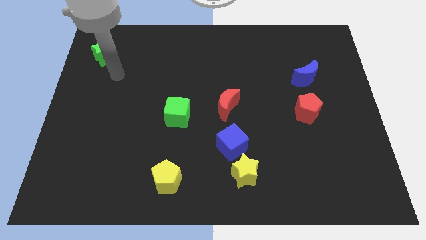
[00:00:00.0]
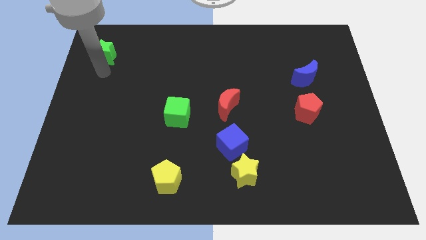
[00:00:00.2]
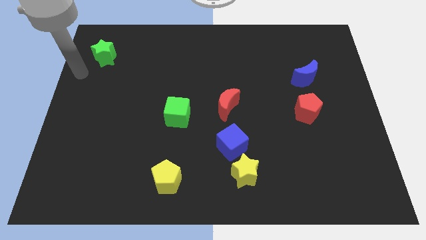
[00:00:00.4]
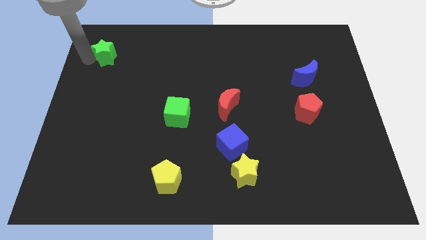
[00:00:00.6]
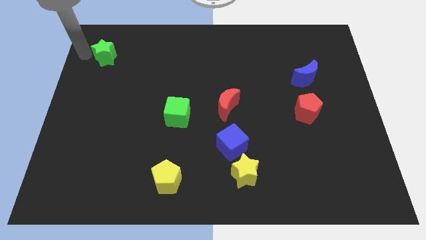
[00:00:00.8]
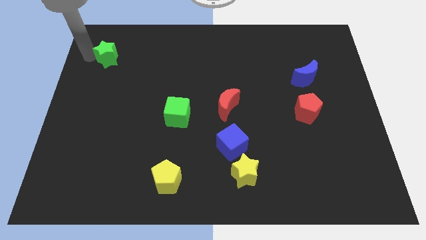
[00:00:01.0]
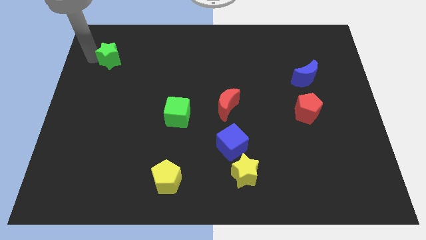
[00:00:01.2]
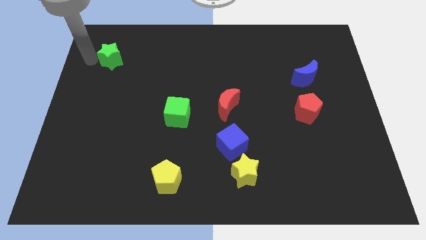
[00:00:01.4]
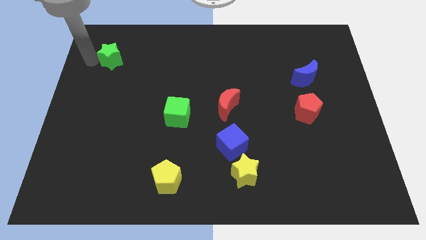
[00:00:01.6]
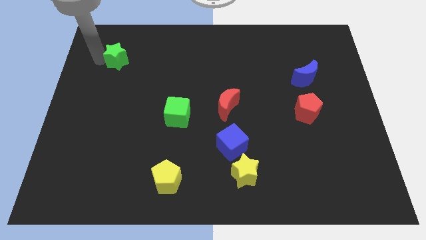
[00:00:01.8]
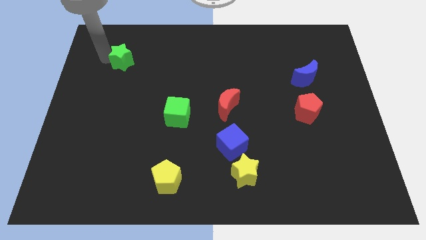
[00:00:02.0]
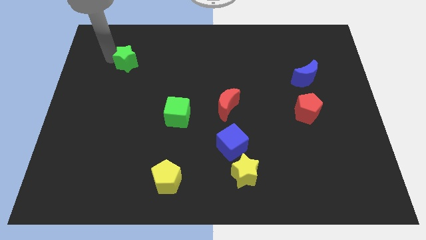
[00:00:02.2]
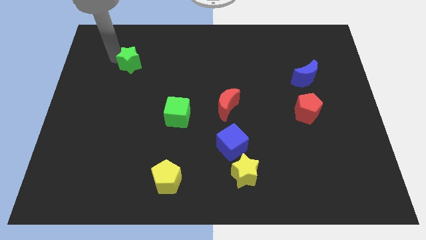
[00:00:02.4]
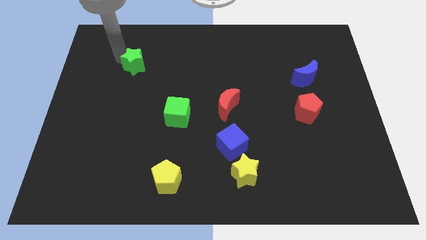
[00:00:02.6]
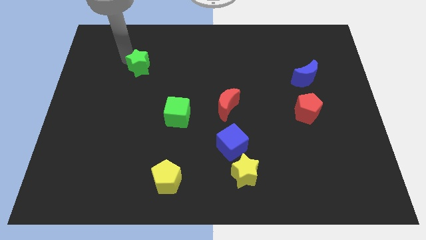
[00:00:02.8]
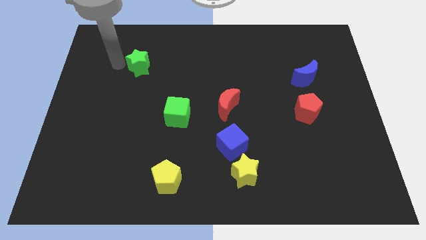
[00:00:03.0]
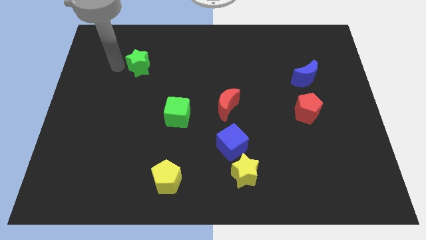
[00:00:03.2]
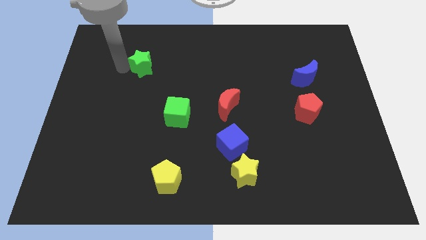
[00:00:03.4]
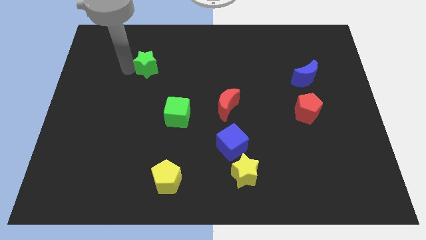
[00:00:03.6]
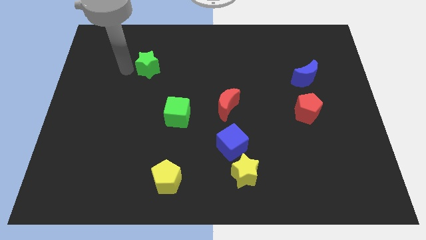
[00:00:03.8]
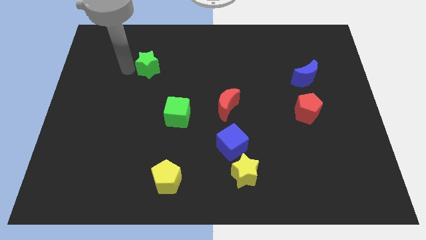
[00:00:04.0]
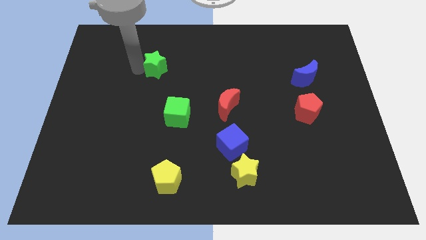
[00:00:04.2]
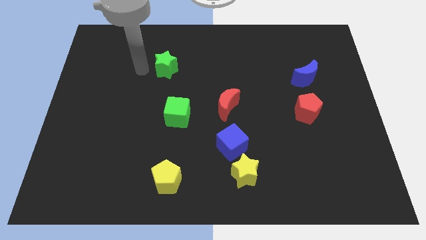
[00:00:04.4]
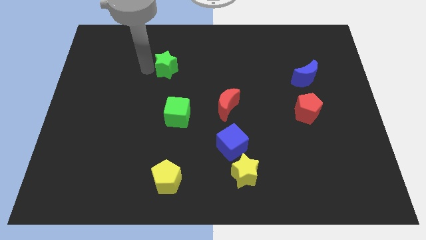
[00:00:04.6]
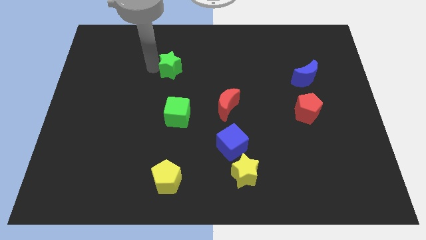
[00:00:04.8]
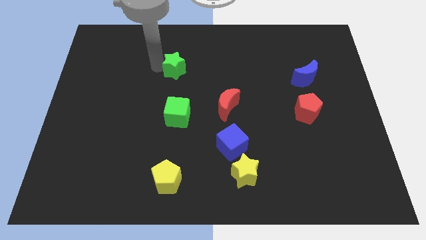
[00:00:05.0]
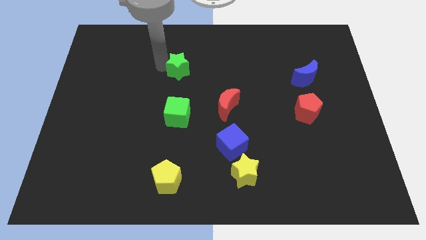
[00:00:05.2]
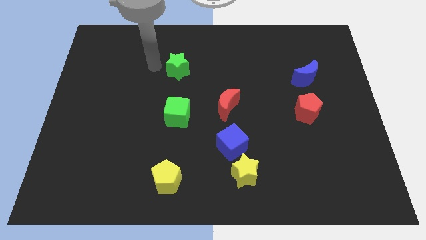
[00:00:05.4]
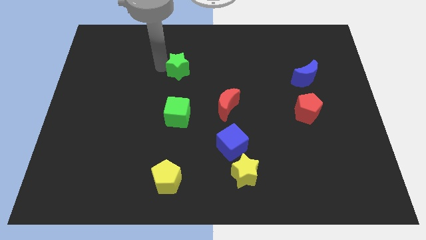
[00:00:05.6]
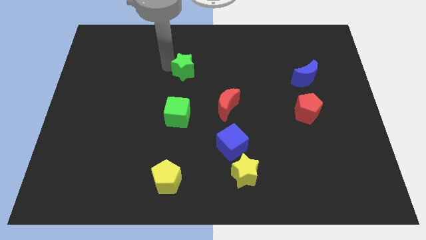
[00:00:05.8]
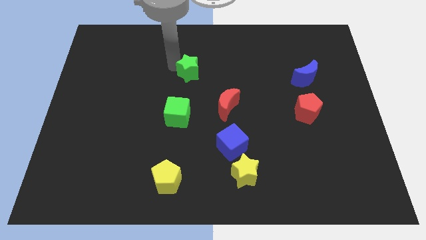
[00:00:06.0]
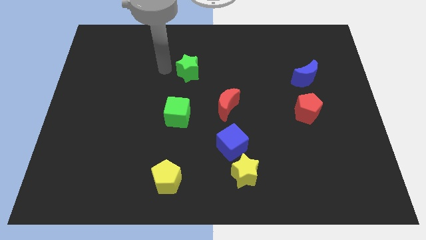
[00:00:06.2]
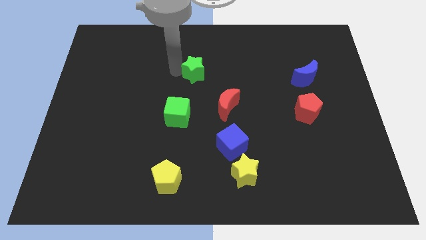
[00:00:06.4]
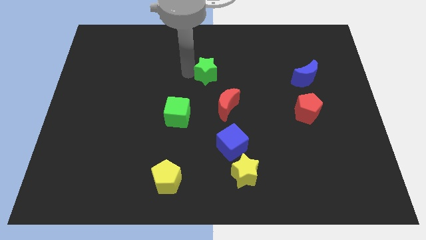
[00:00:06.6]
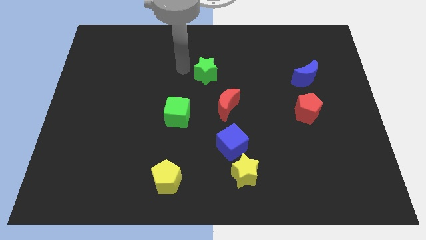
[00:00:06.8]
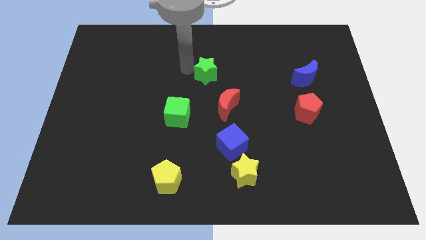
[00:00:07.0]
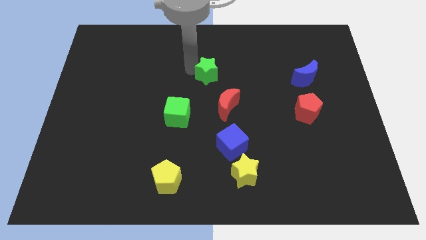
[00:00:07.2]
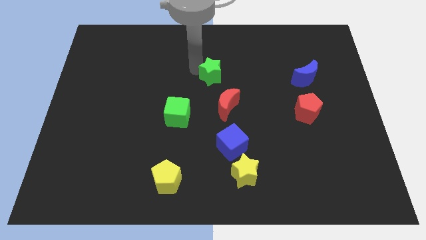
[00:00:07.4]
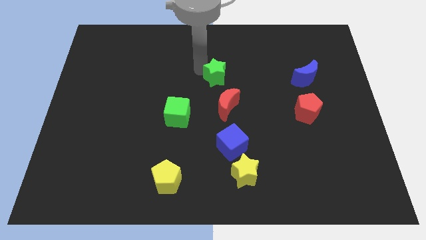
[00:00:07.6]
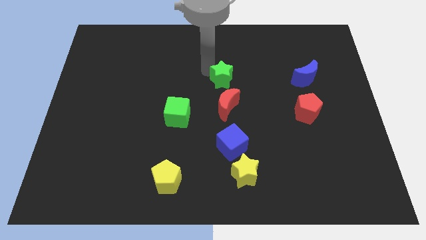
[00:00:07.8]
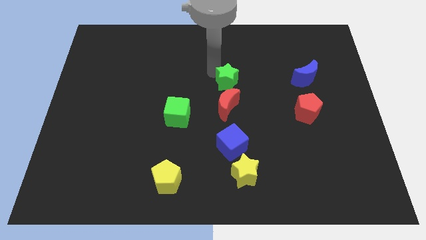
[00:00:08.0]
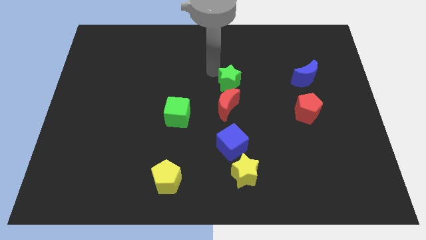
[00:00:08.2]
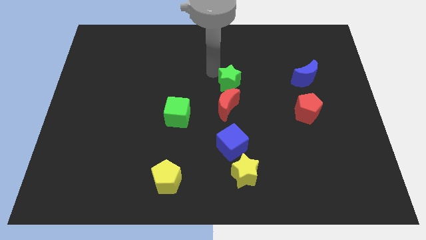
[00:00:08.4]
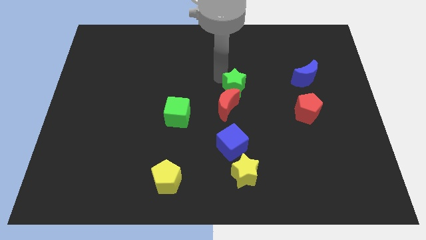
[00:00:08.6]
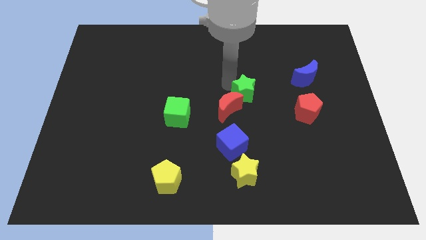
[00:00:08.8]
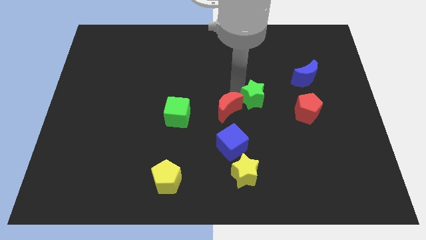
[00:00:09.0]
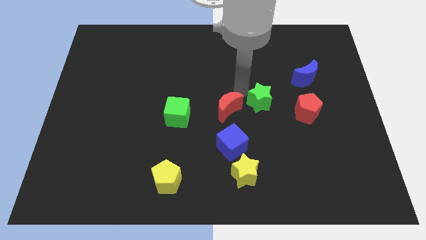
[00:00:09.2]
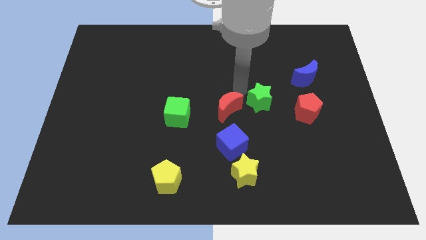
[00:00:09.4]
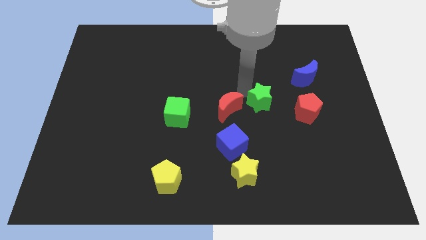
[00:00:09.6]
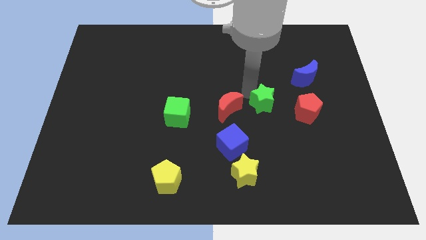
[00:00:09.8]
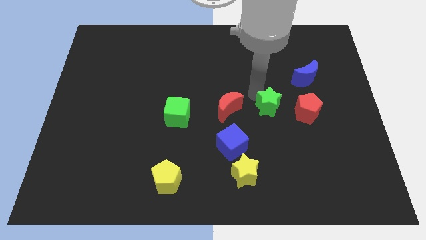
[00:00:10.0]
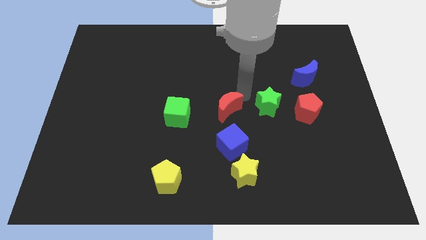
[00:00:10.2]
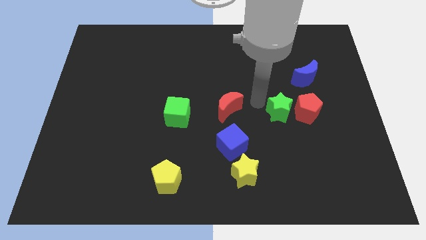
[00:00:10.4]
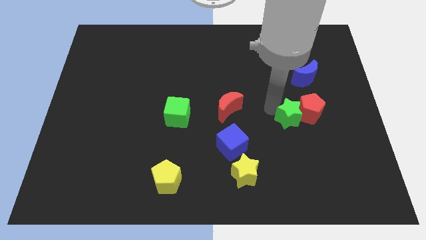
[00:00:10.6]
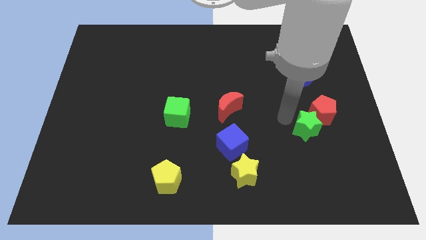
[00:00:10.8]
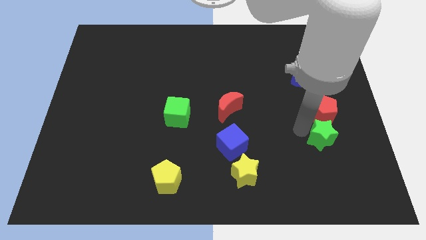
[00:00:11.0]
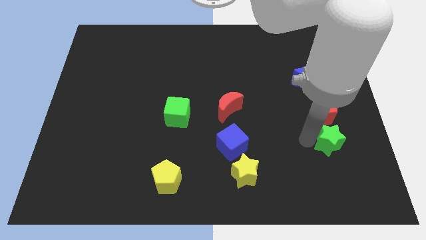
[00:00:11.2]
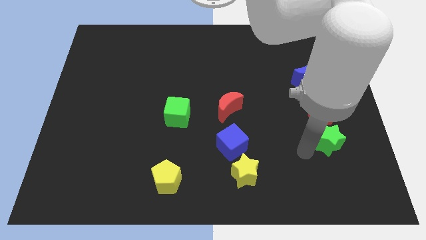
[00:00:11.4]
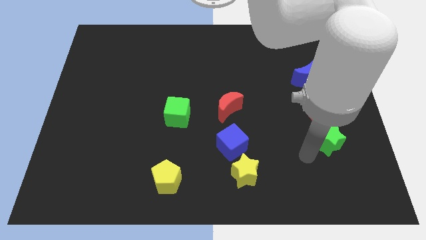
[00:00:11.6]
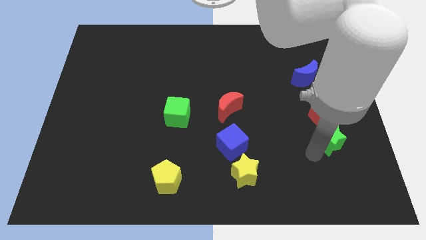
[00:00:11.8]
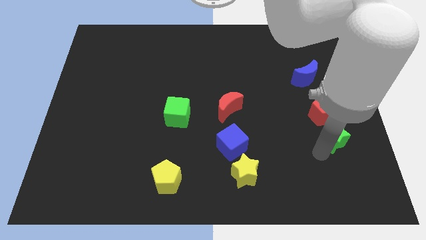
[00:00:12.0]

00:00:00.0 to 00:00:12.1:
put the green star diagonally down and to the right of the red pentagon

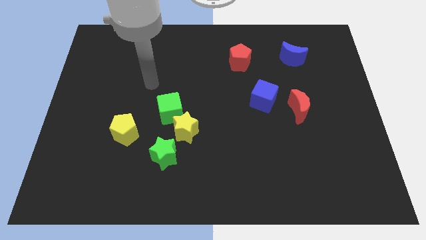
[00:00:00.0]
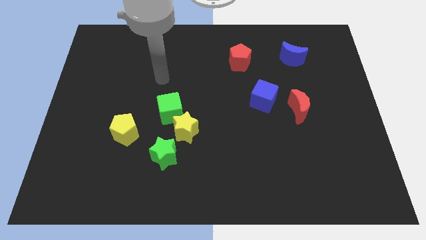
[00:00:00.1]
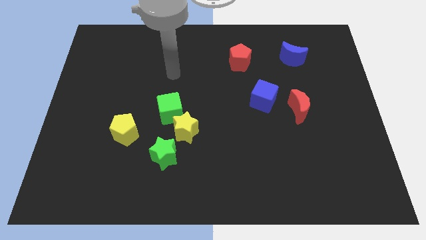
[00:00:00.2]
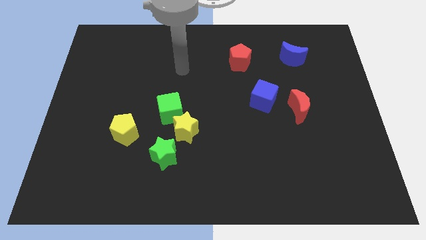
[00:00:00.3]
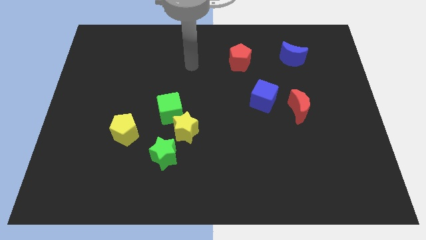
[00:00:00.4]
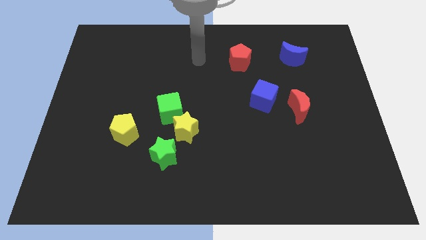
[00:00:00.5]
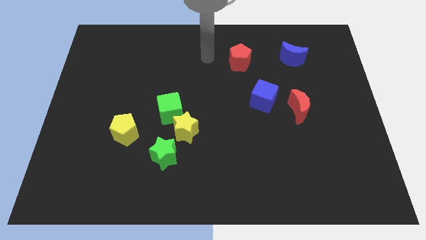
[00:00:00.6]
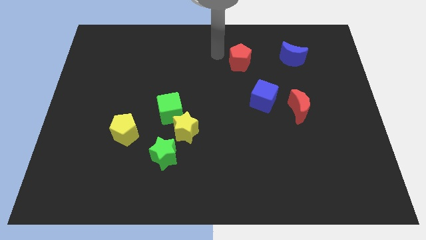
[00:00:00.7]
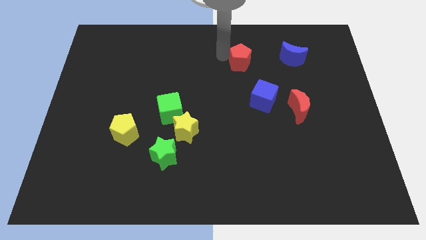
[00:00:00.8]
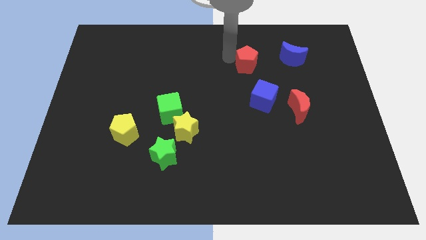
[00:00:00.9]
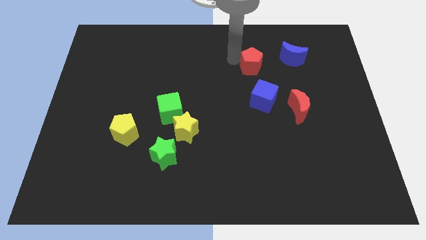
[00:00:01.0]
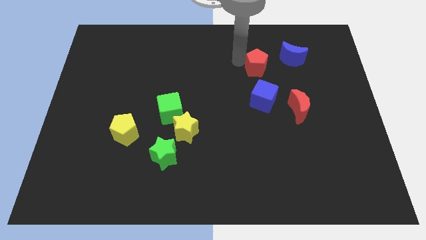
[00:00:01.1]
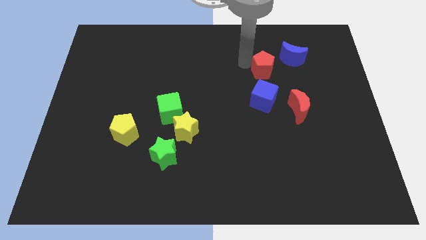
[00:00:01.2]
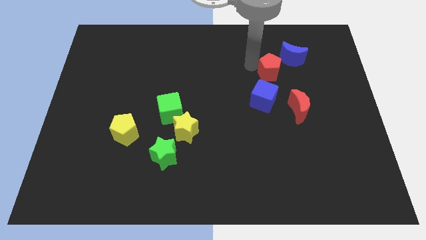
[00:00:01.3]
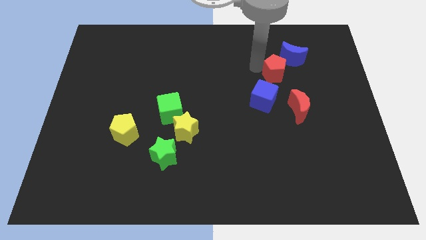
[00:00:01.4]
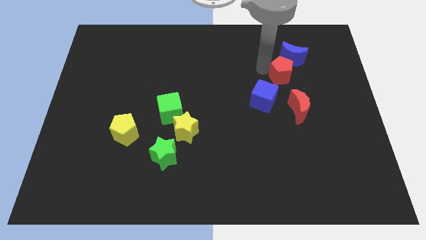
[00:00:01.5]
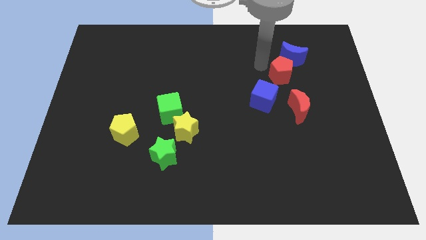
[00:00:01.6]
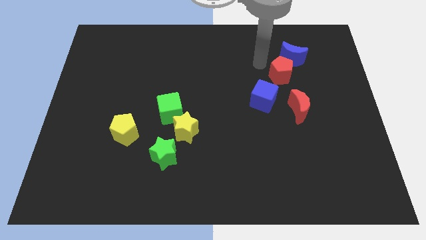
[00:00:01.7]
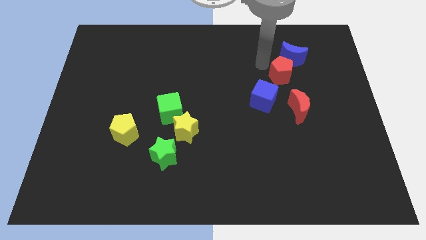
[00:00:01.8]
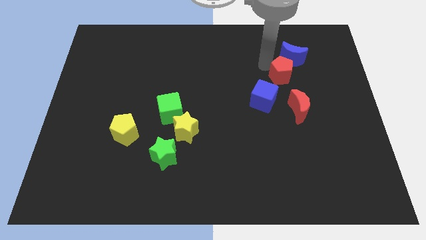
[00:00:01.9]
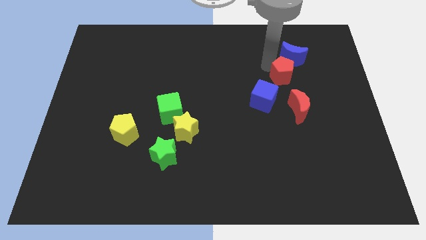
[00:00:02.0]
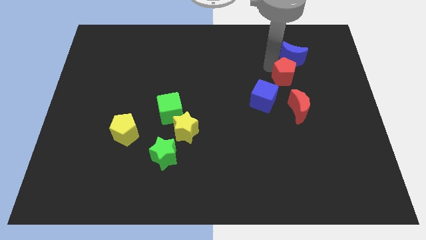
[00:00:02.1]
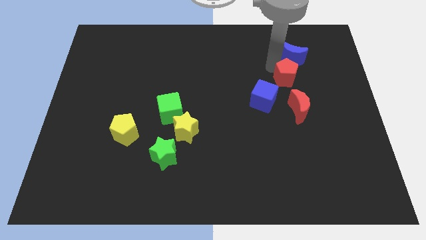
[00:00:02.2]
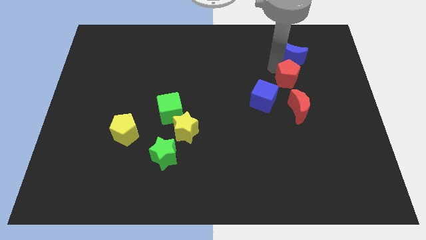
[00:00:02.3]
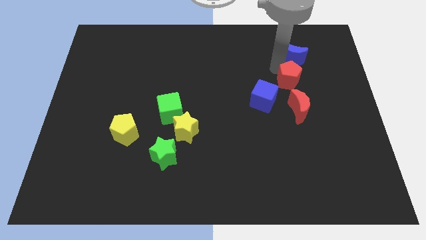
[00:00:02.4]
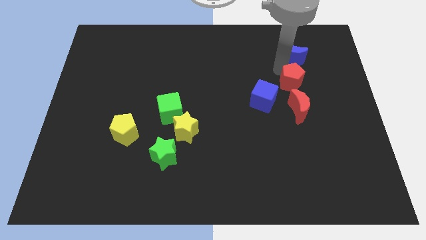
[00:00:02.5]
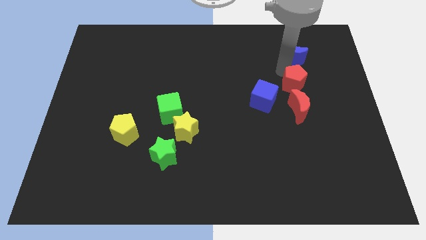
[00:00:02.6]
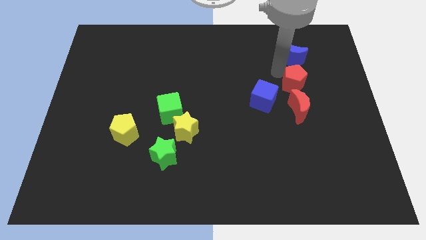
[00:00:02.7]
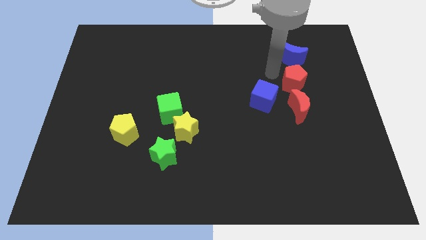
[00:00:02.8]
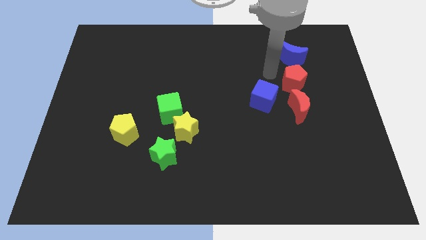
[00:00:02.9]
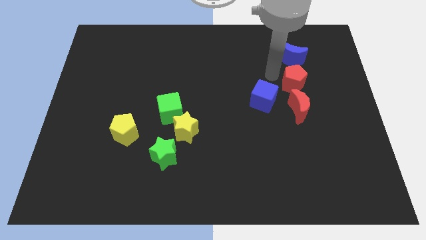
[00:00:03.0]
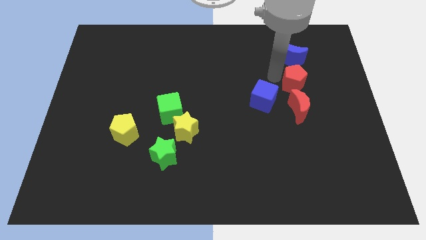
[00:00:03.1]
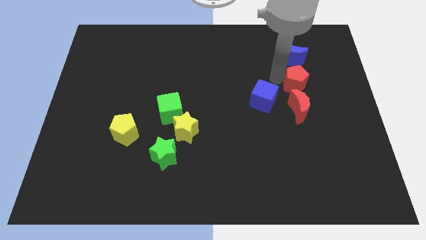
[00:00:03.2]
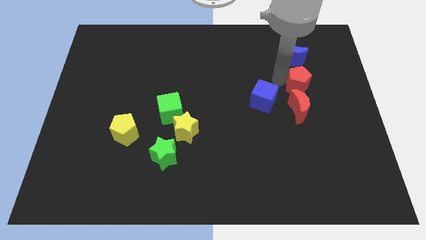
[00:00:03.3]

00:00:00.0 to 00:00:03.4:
slide the red pentagon to the top right side of the red moon
